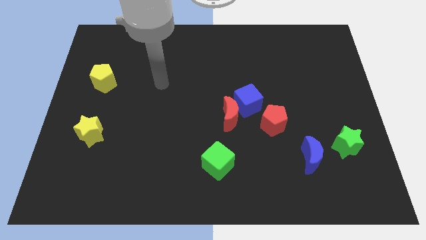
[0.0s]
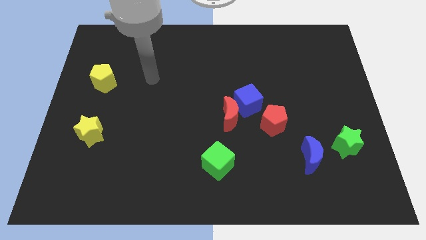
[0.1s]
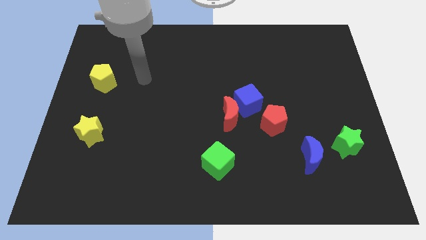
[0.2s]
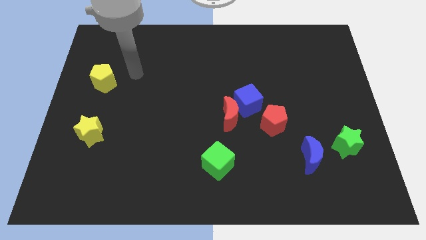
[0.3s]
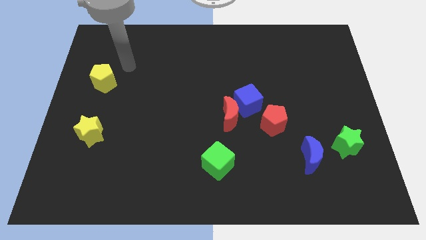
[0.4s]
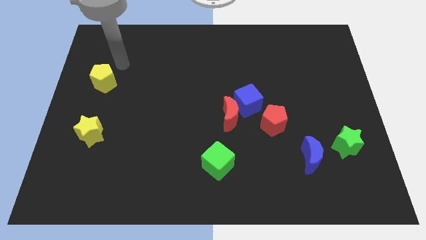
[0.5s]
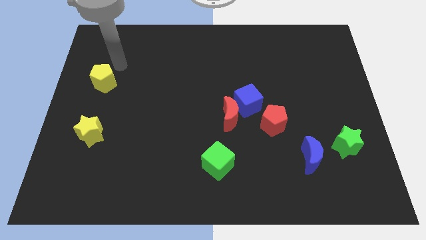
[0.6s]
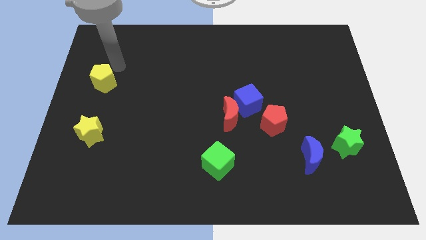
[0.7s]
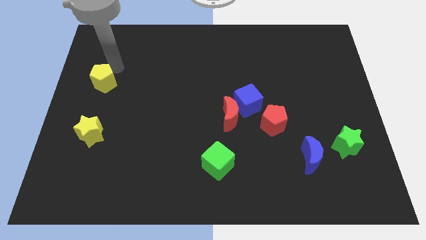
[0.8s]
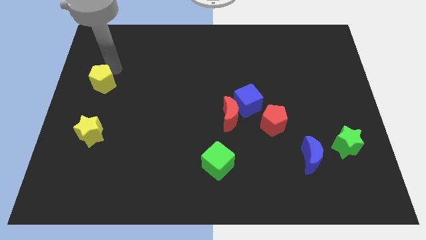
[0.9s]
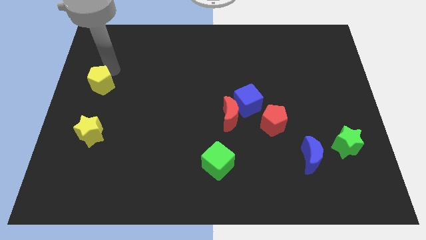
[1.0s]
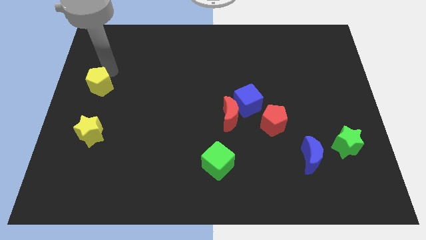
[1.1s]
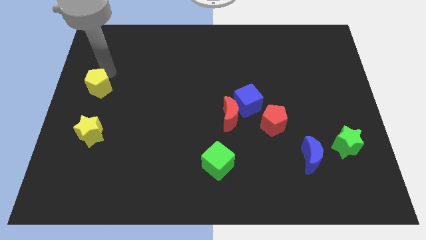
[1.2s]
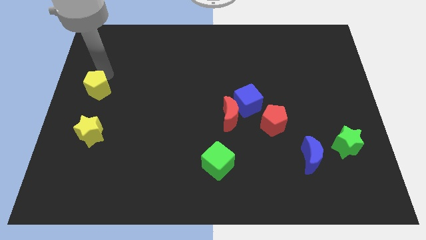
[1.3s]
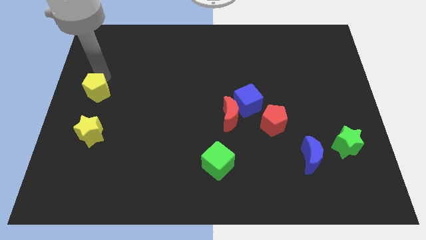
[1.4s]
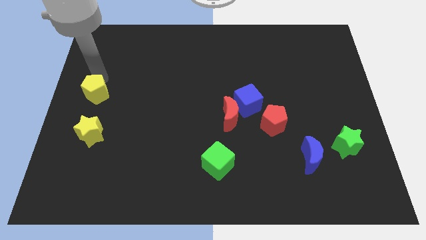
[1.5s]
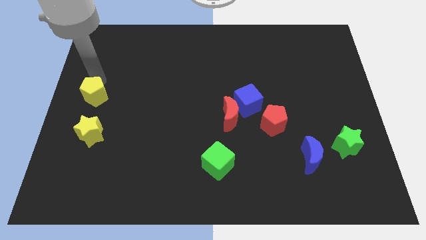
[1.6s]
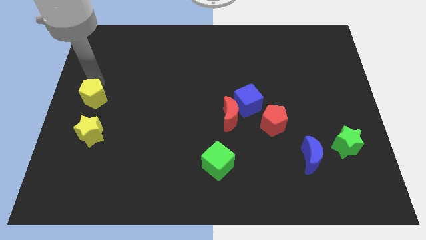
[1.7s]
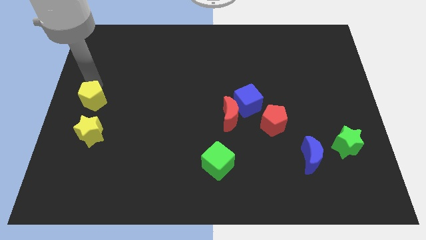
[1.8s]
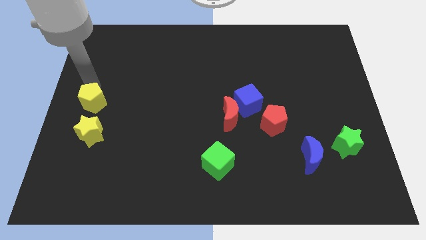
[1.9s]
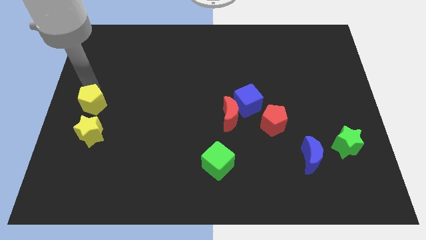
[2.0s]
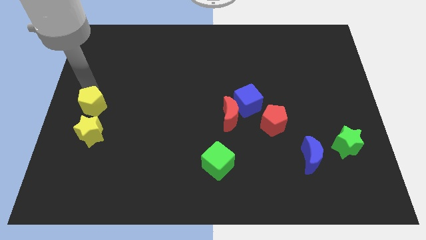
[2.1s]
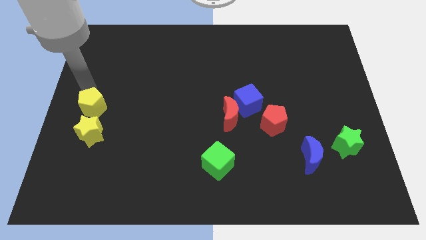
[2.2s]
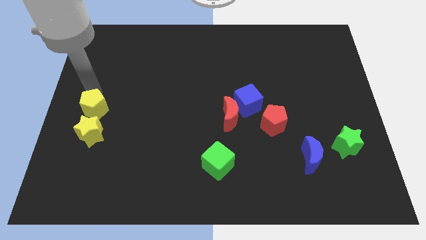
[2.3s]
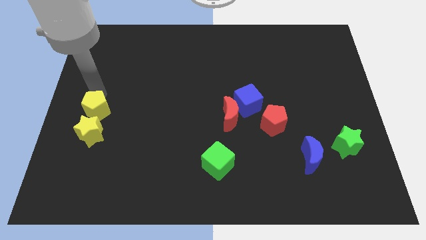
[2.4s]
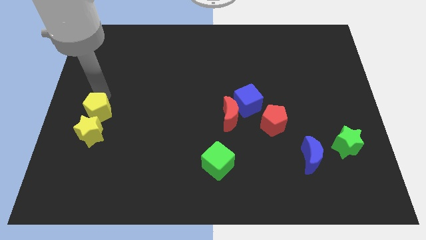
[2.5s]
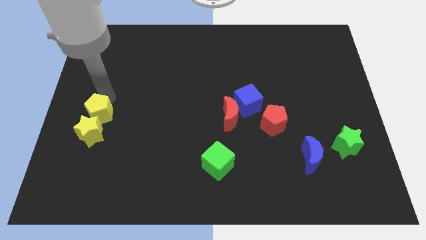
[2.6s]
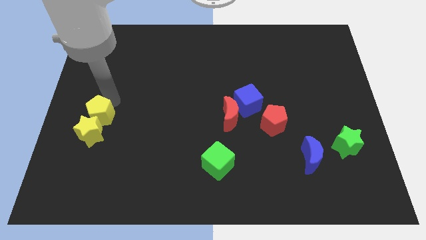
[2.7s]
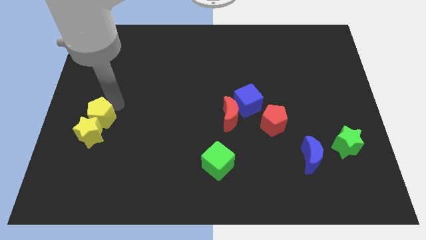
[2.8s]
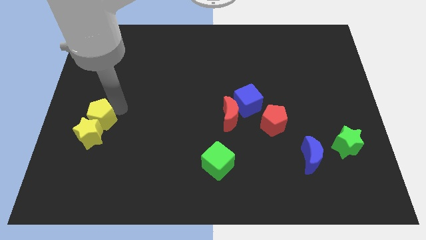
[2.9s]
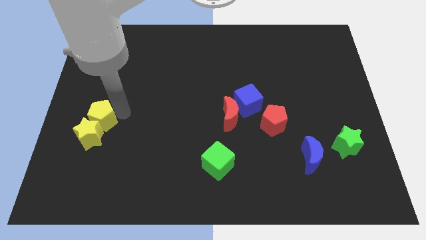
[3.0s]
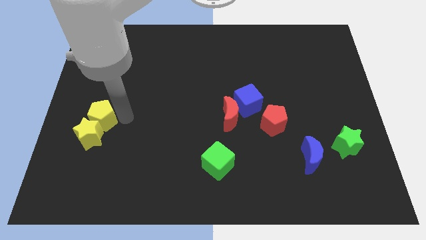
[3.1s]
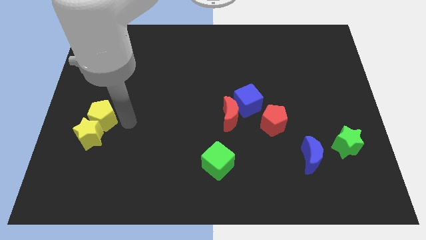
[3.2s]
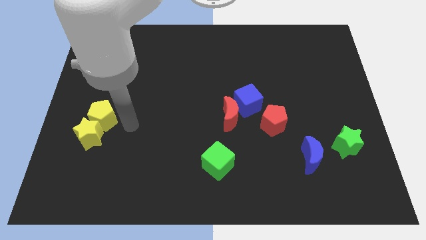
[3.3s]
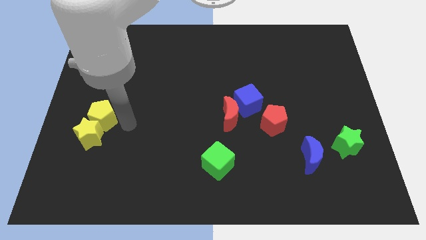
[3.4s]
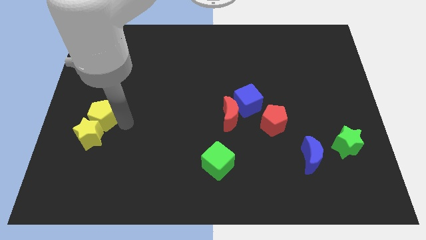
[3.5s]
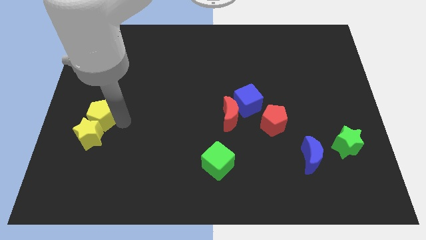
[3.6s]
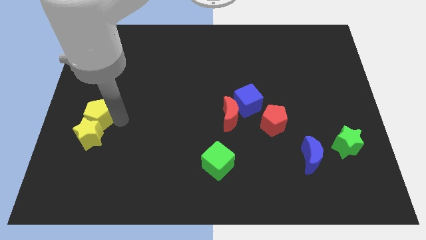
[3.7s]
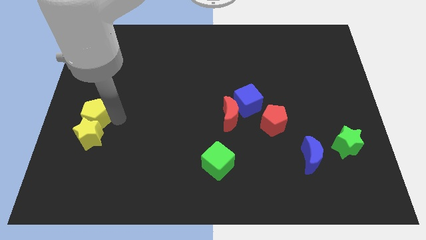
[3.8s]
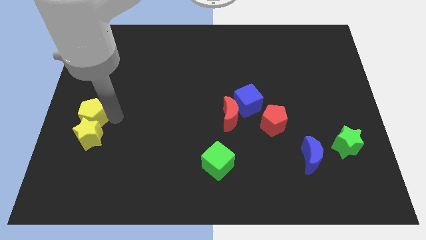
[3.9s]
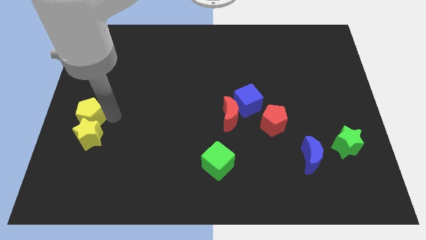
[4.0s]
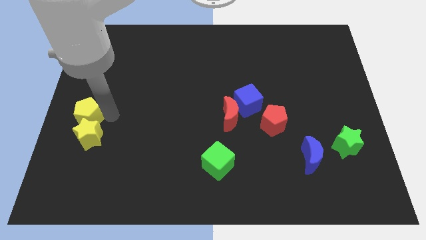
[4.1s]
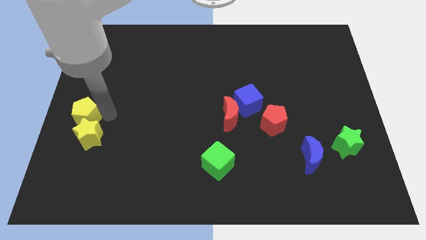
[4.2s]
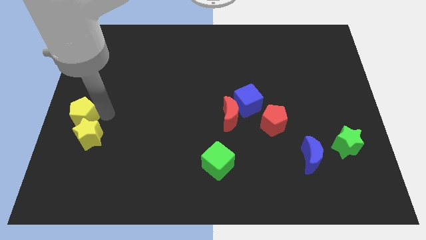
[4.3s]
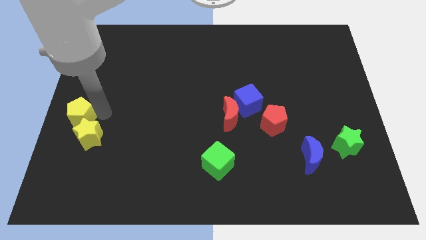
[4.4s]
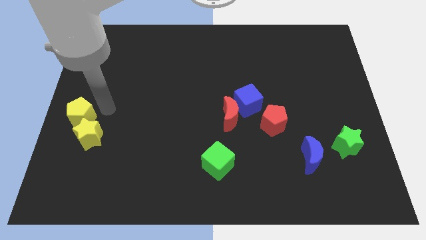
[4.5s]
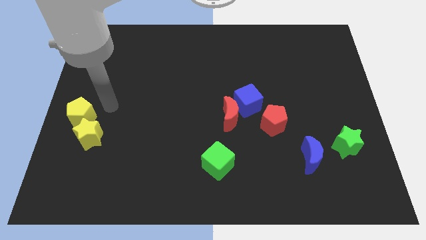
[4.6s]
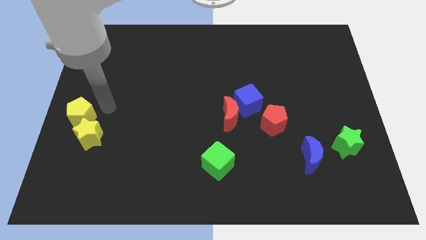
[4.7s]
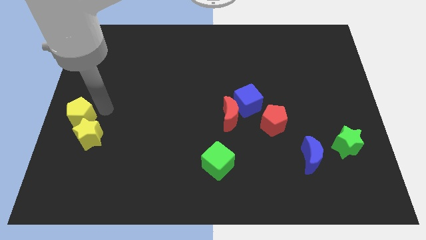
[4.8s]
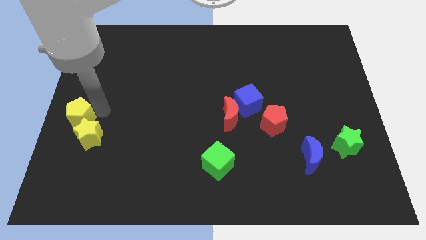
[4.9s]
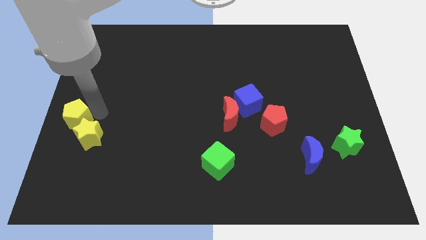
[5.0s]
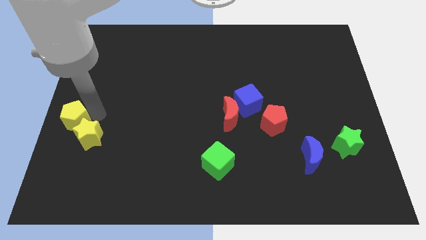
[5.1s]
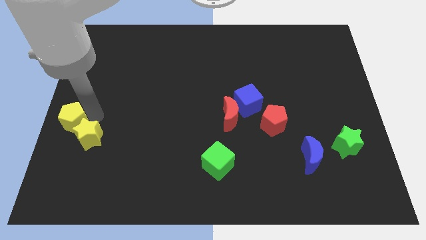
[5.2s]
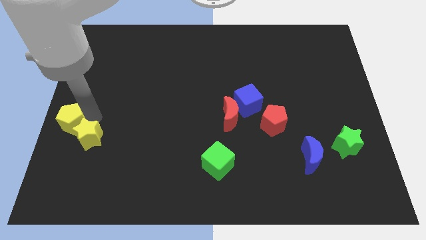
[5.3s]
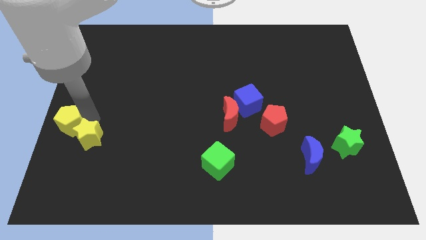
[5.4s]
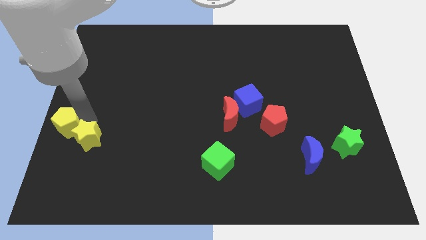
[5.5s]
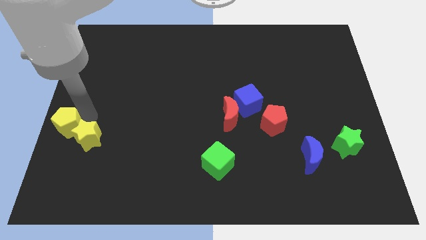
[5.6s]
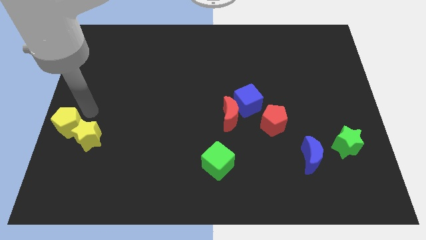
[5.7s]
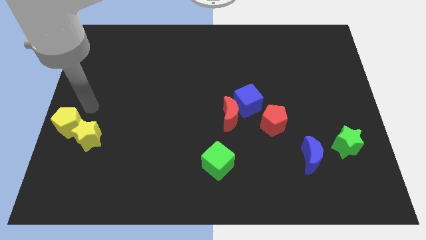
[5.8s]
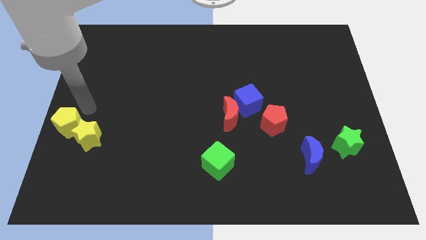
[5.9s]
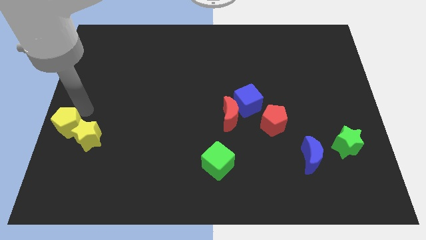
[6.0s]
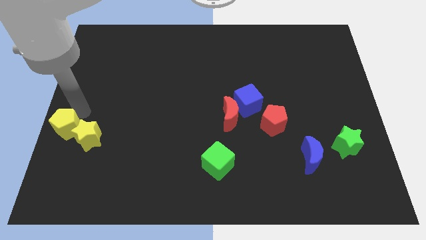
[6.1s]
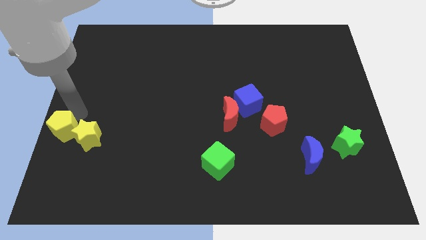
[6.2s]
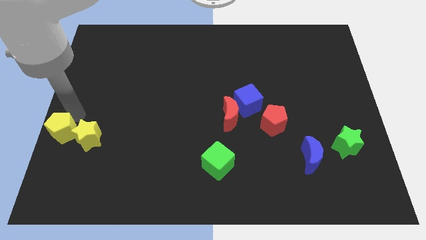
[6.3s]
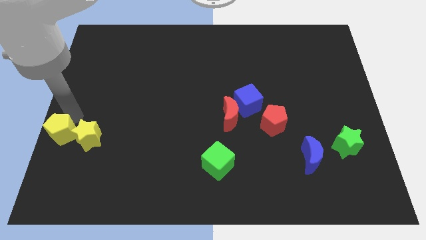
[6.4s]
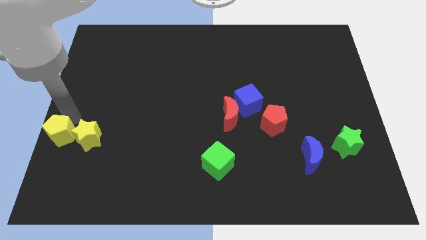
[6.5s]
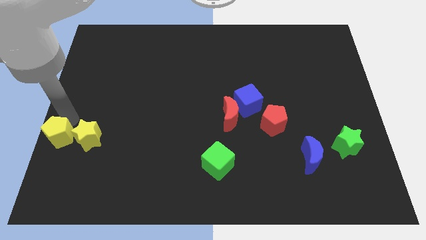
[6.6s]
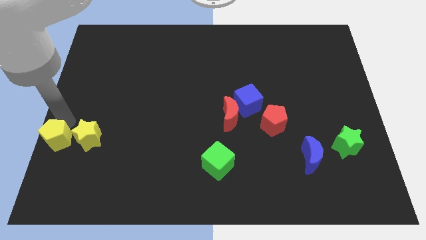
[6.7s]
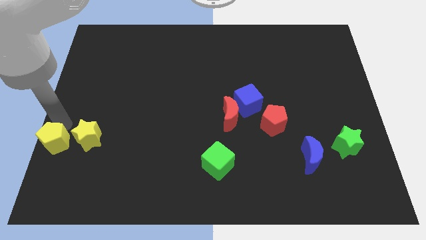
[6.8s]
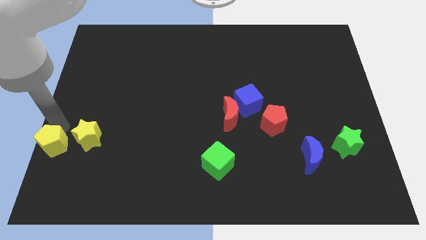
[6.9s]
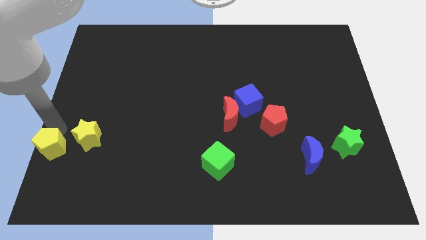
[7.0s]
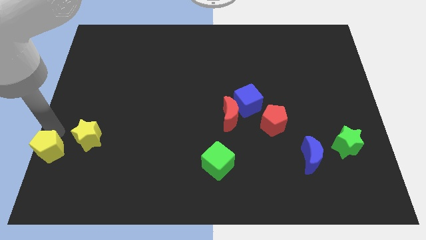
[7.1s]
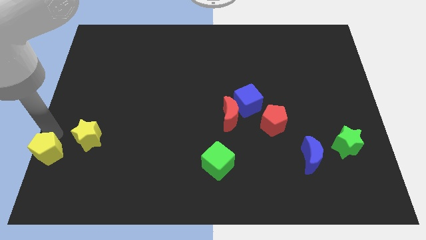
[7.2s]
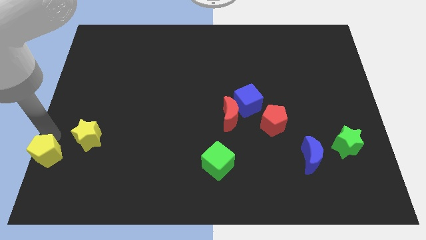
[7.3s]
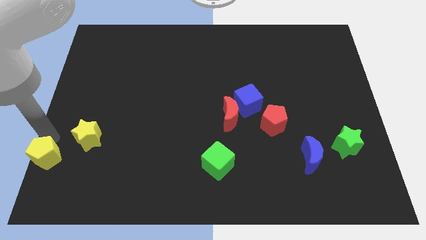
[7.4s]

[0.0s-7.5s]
put the yellow pentagon to the bottom left corner
